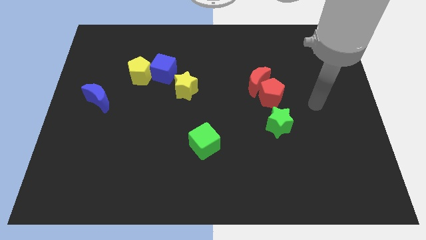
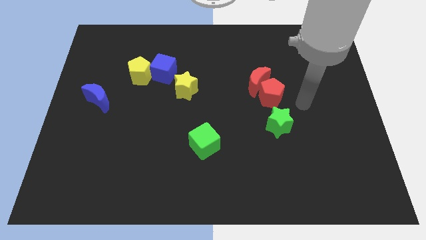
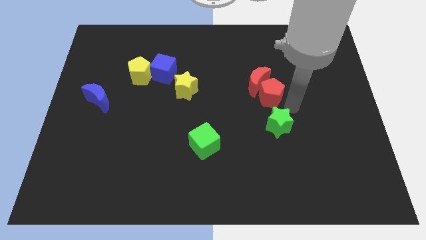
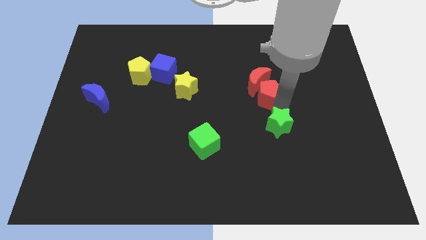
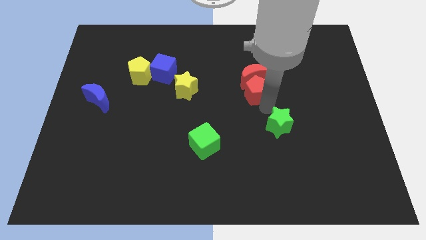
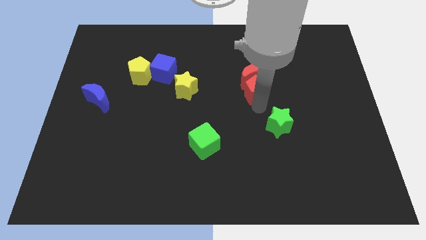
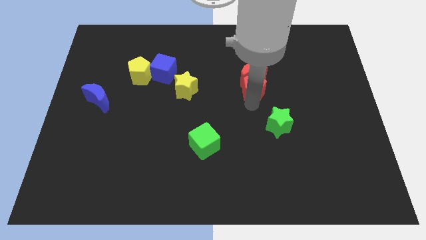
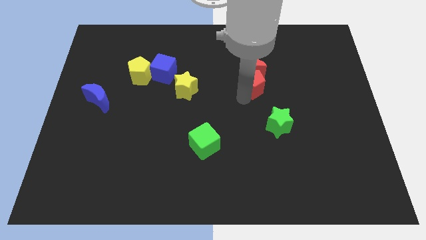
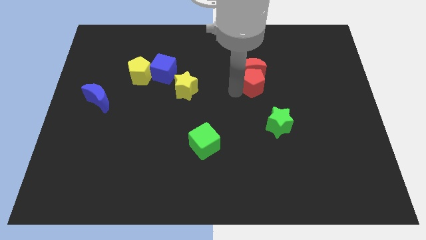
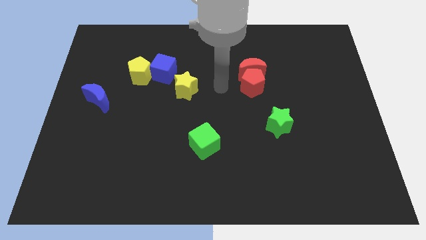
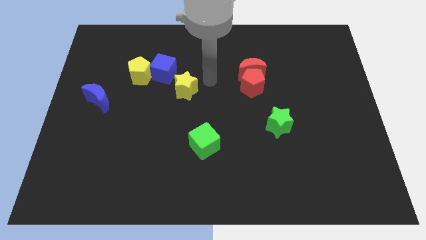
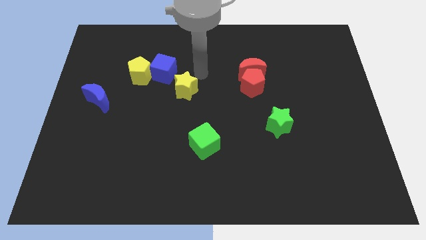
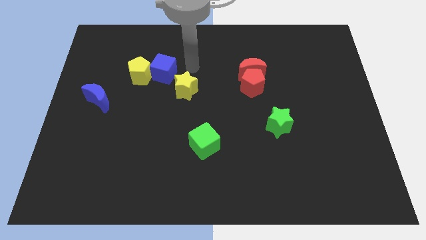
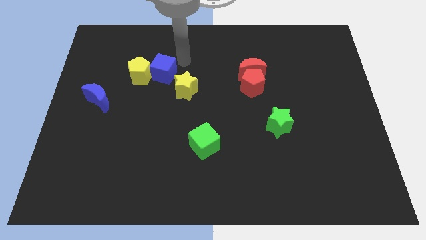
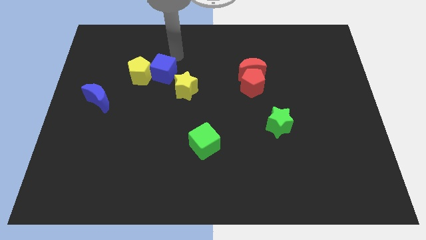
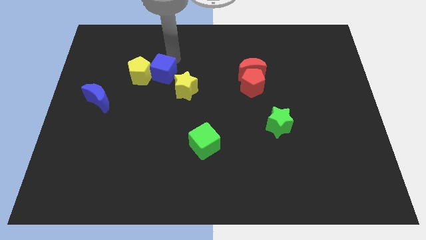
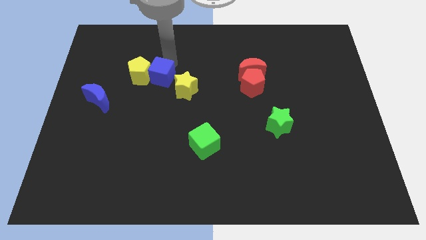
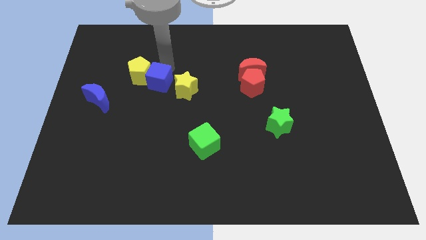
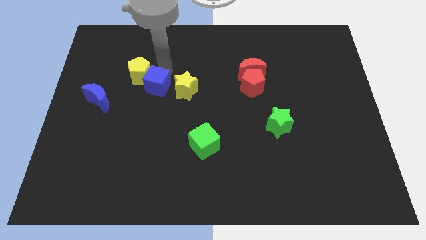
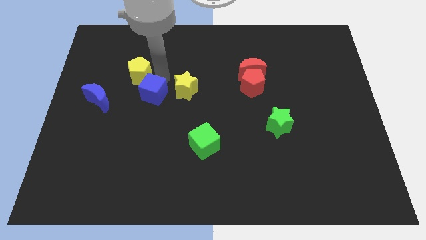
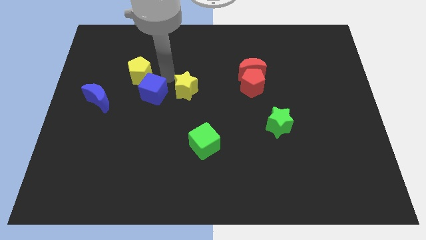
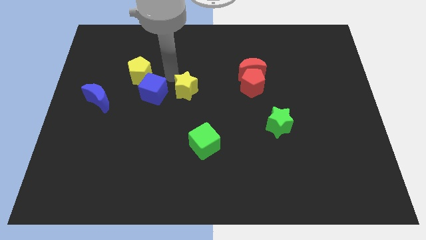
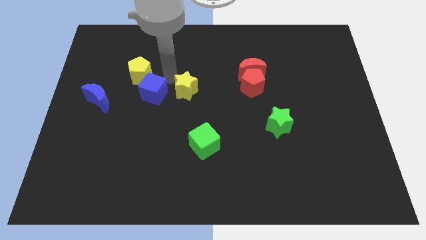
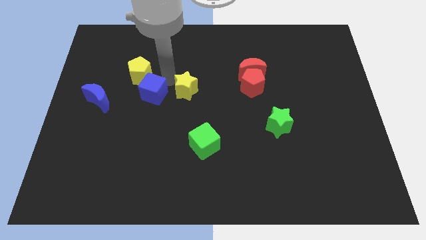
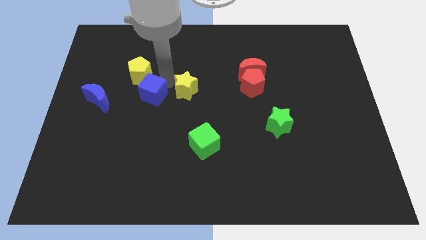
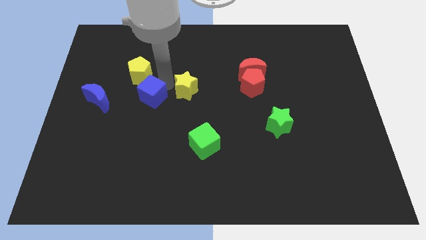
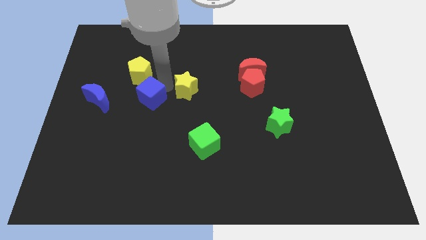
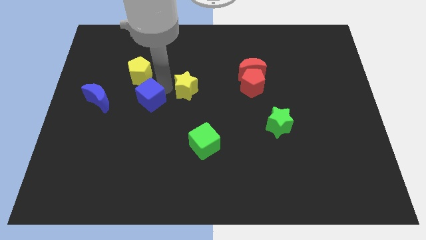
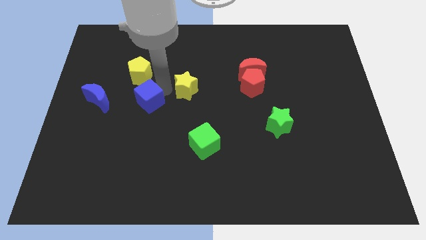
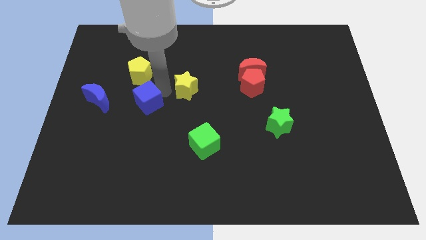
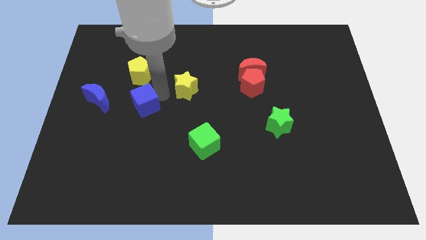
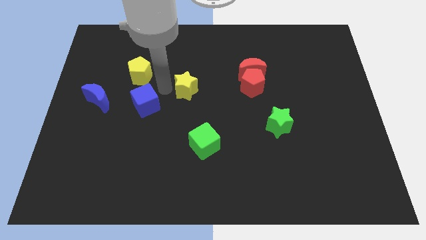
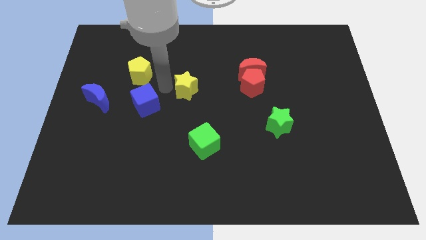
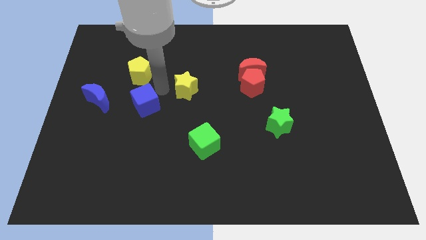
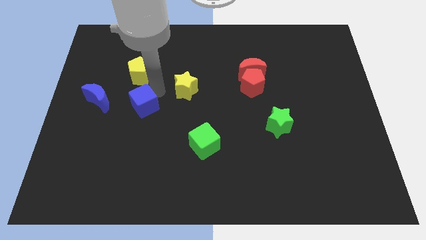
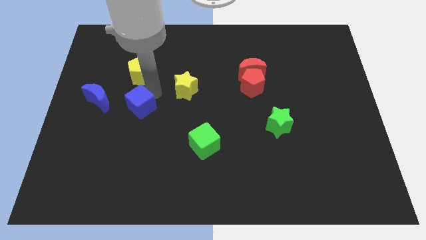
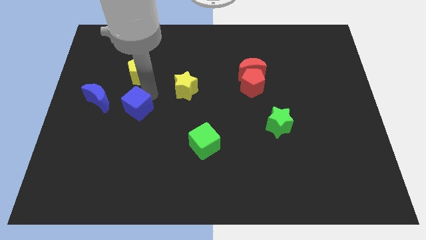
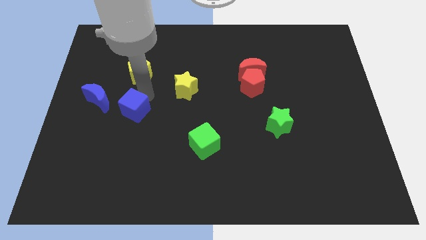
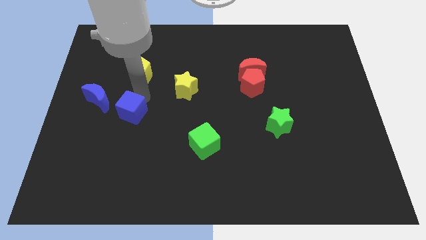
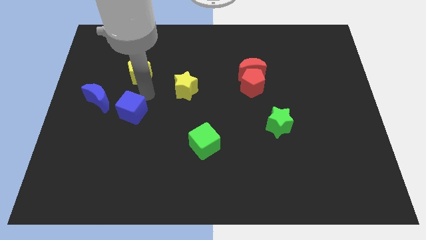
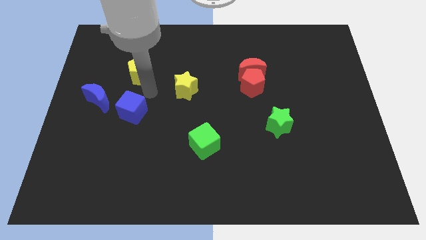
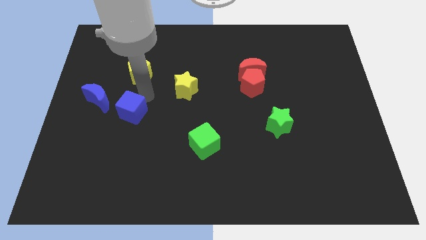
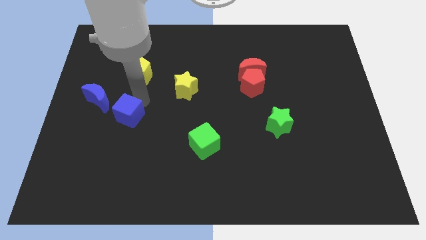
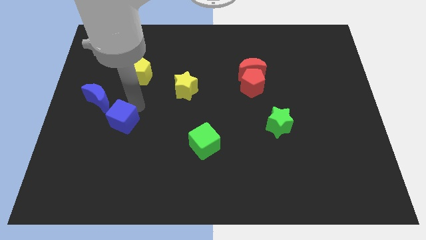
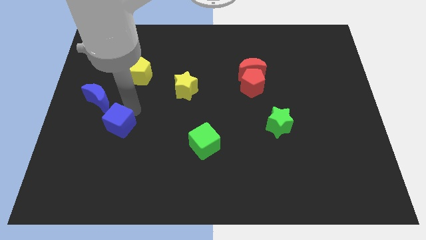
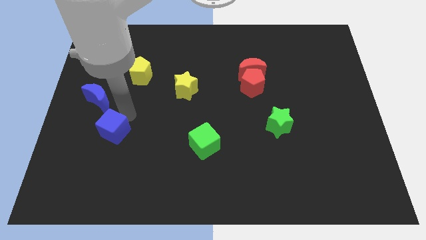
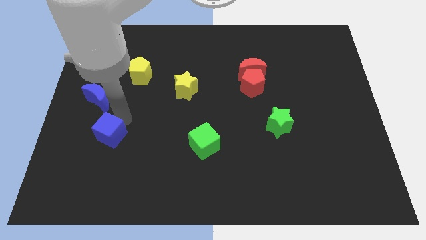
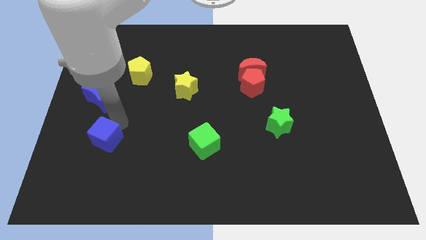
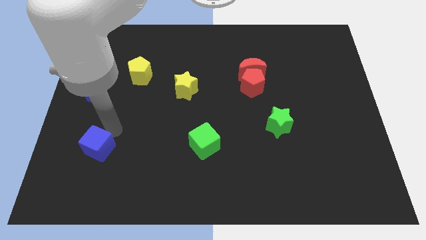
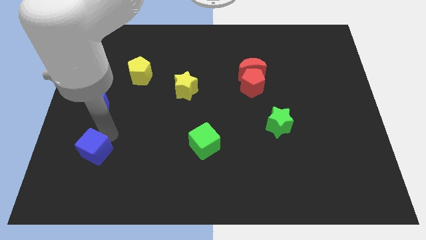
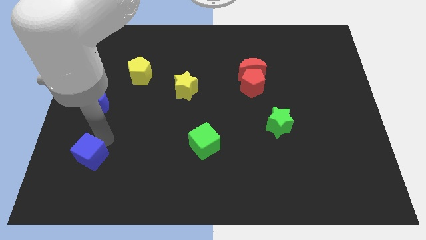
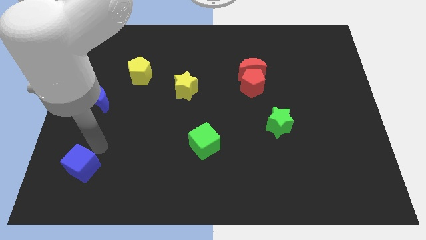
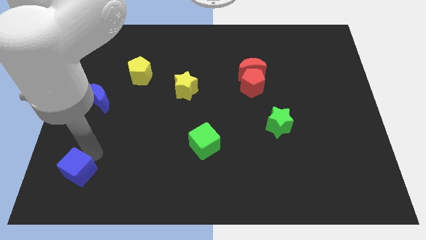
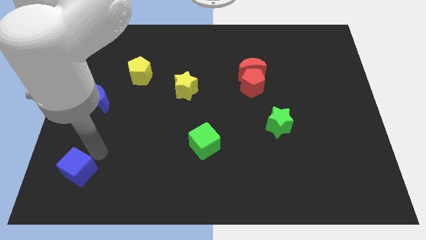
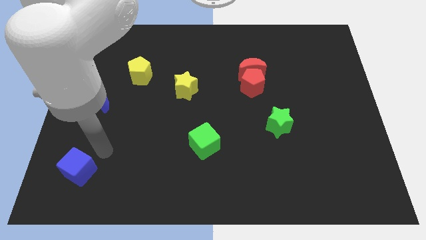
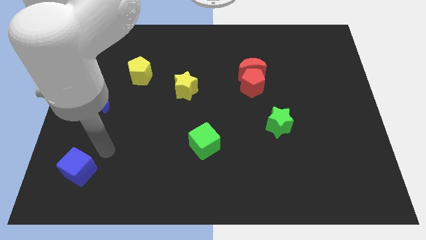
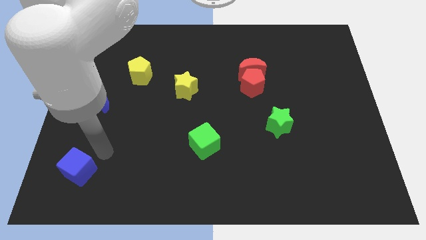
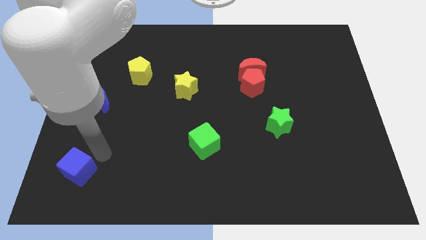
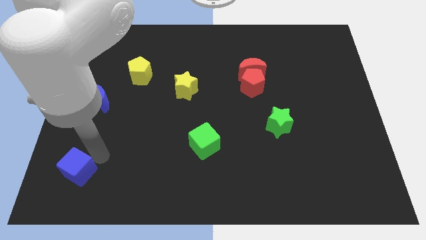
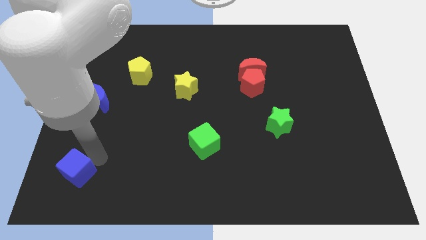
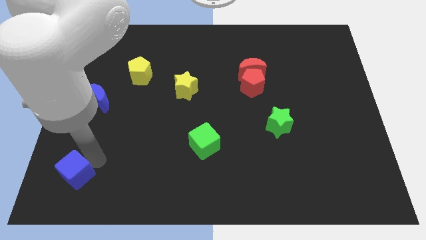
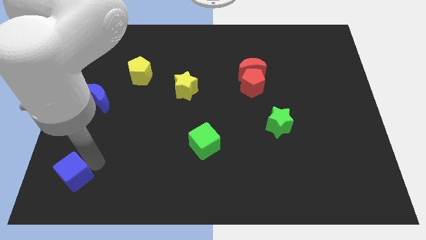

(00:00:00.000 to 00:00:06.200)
slide the blue cube to the bottom left
